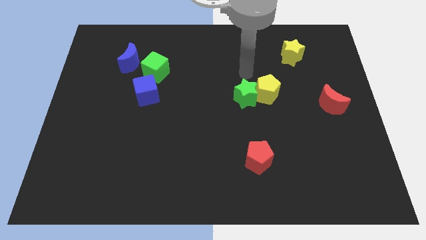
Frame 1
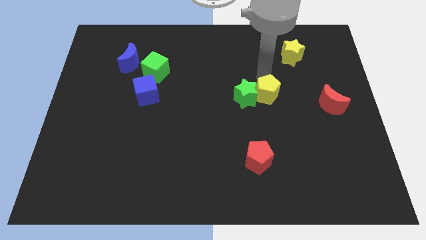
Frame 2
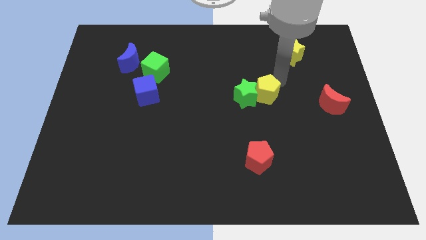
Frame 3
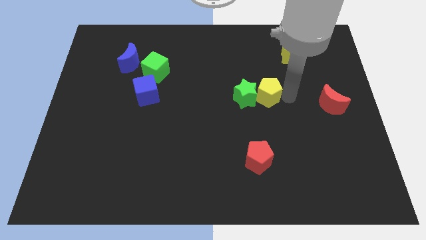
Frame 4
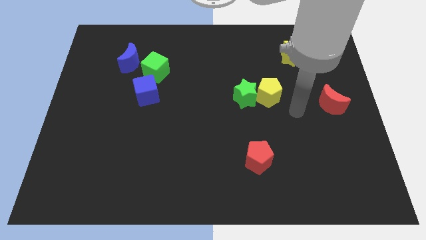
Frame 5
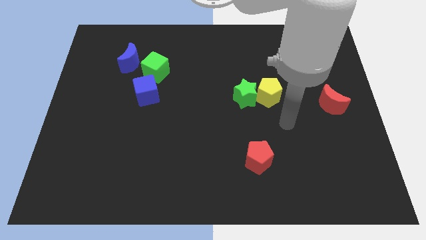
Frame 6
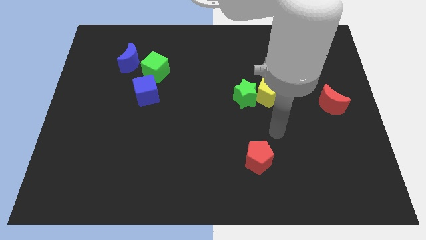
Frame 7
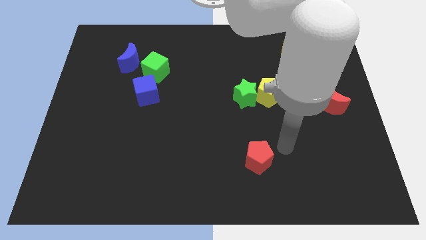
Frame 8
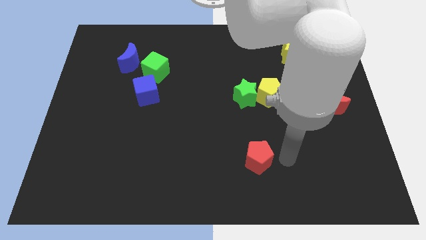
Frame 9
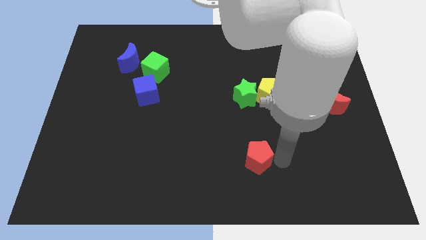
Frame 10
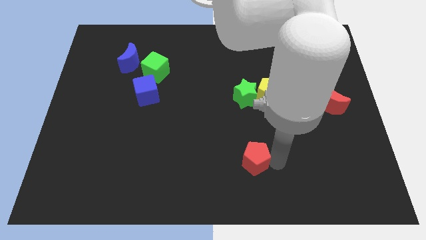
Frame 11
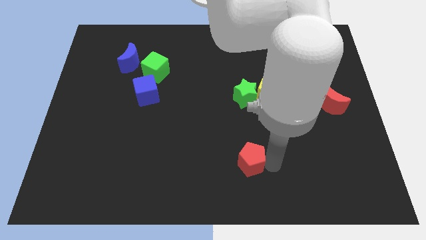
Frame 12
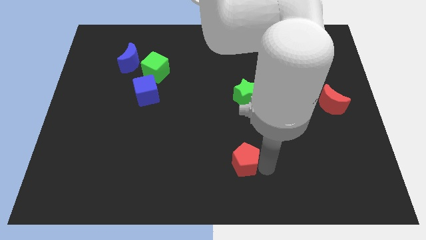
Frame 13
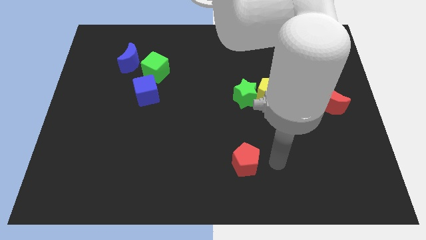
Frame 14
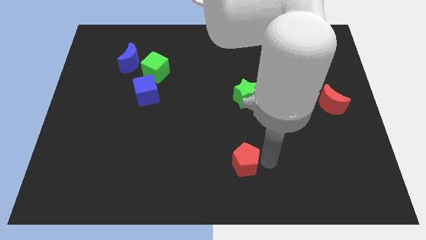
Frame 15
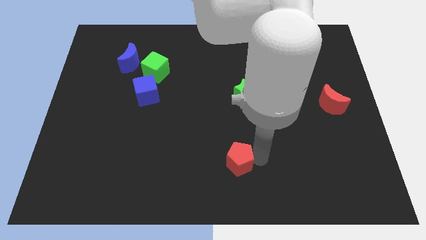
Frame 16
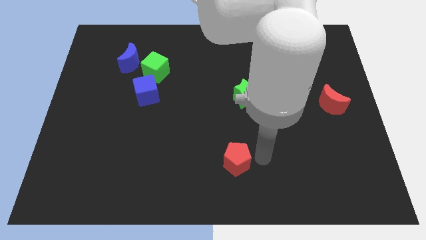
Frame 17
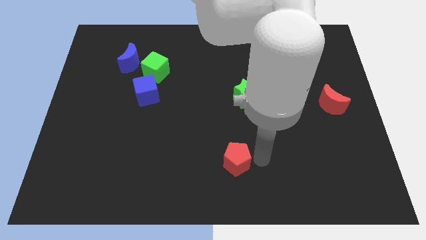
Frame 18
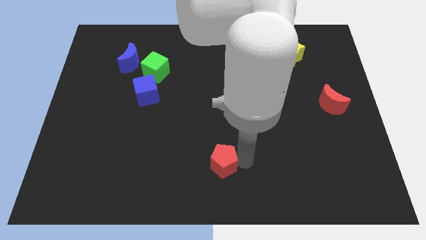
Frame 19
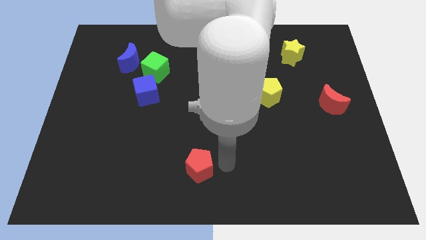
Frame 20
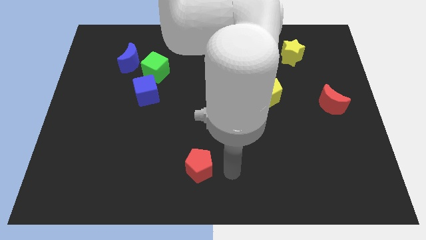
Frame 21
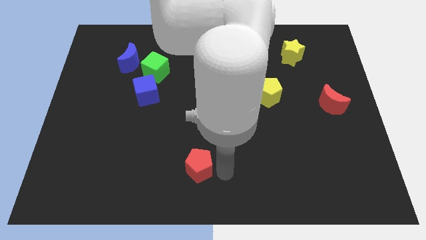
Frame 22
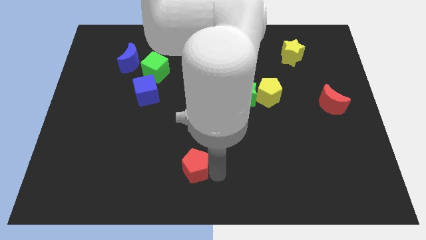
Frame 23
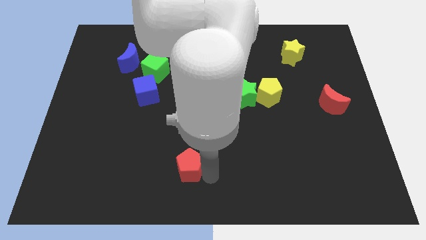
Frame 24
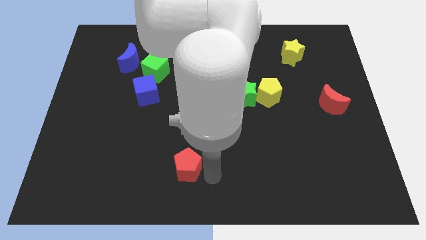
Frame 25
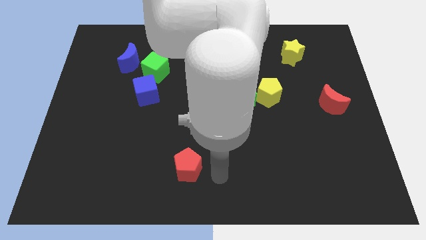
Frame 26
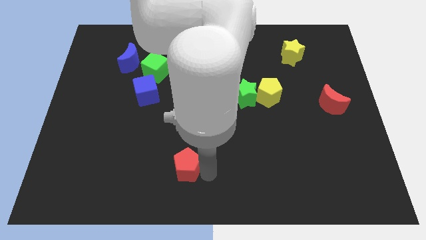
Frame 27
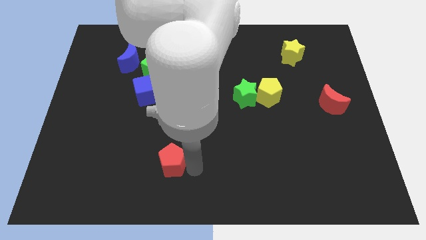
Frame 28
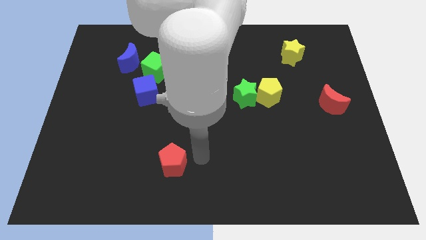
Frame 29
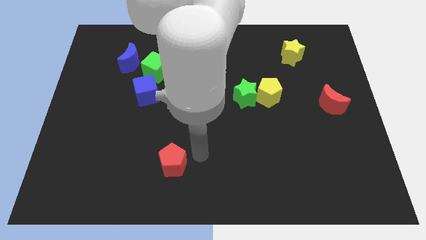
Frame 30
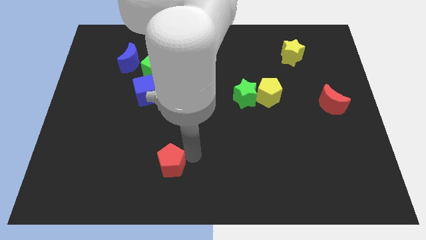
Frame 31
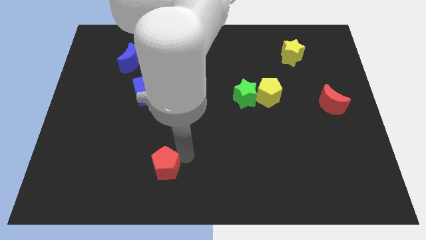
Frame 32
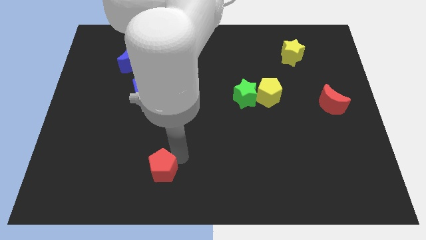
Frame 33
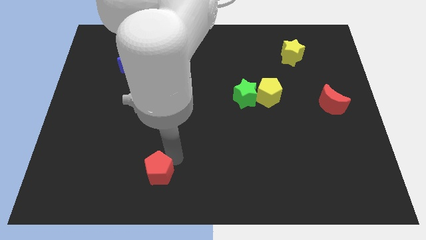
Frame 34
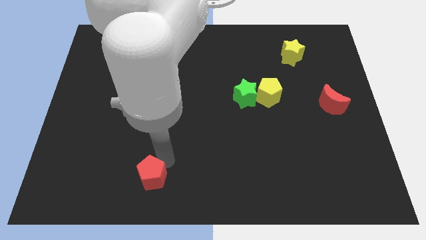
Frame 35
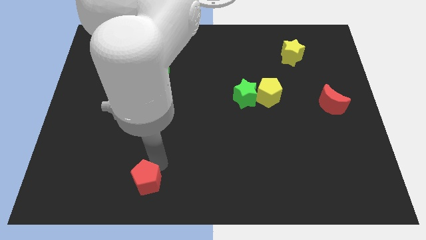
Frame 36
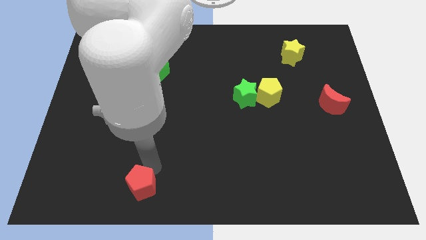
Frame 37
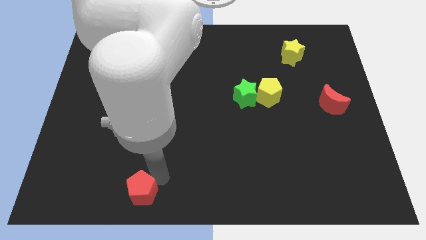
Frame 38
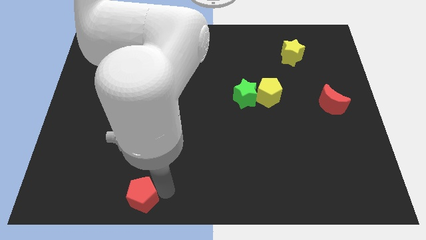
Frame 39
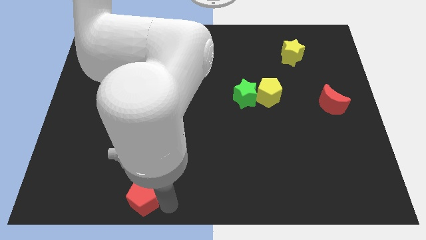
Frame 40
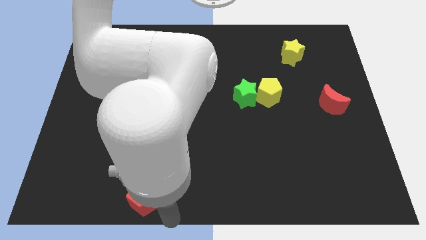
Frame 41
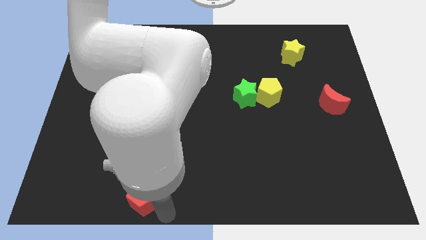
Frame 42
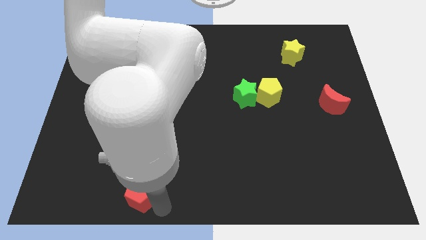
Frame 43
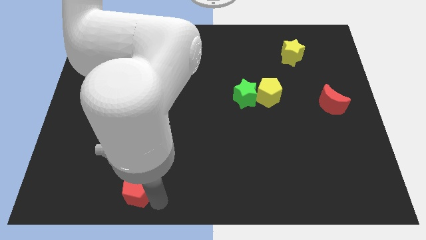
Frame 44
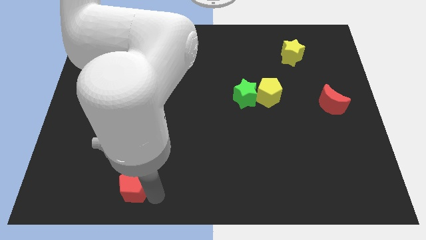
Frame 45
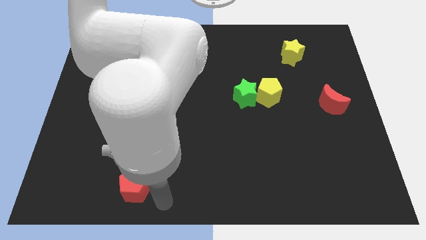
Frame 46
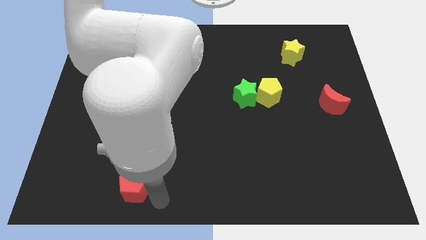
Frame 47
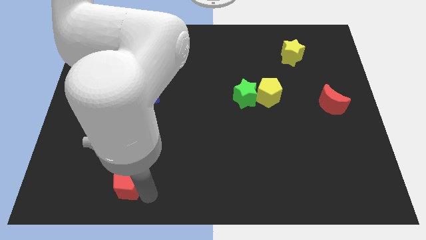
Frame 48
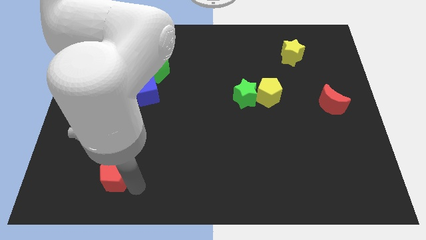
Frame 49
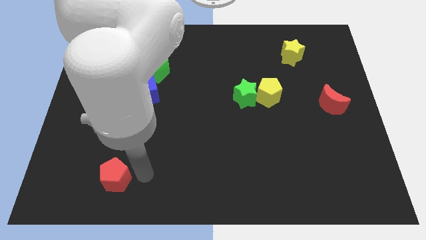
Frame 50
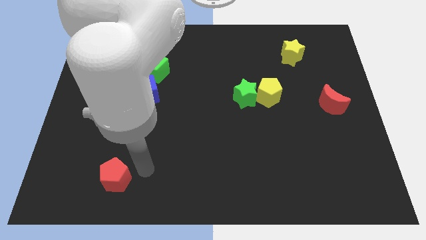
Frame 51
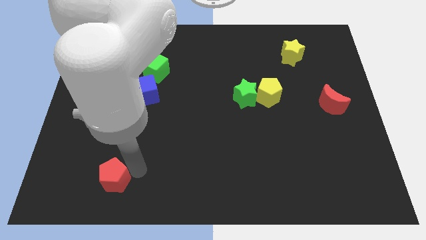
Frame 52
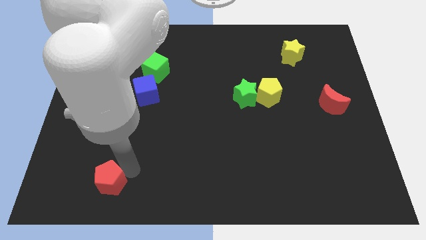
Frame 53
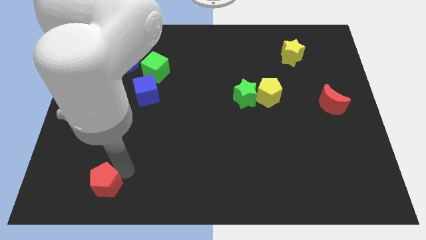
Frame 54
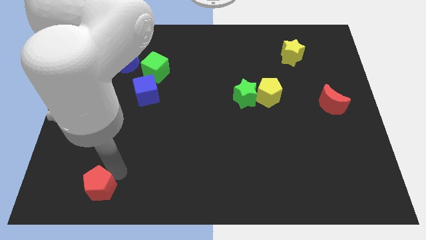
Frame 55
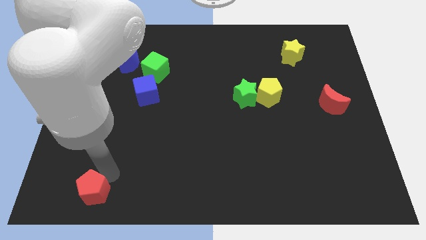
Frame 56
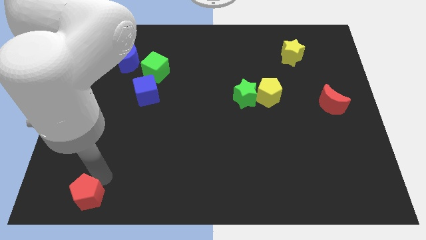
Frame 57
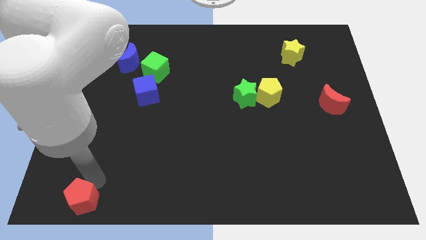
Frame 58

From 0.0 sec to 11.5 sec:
move the red pentagon to the bottom left
